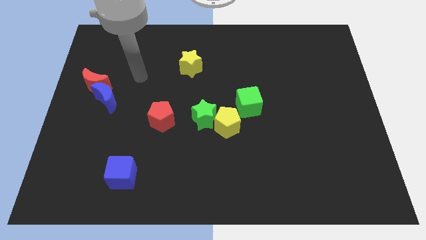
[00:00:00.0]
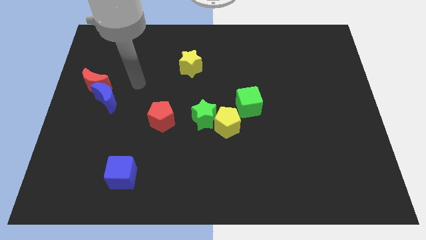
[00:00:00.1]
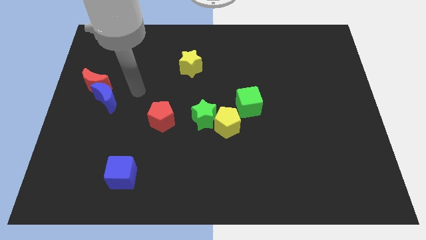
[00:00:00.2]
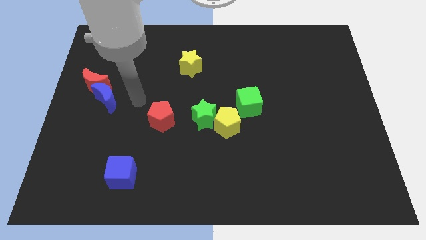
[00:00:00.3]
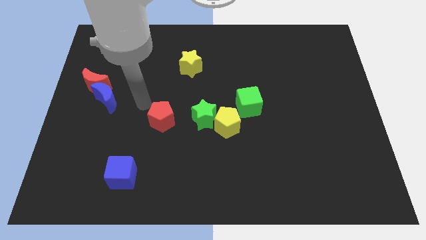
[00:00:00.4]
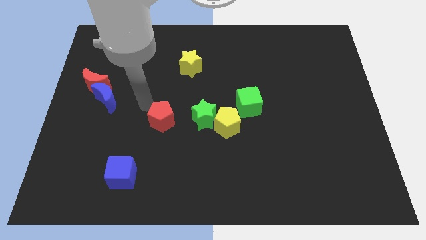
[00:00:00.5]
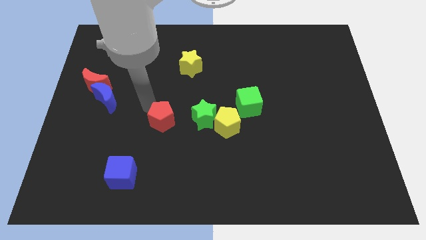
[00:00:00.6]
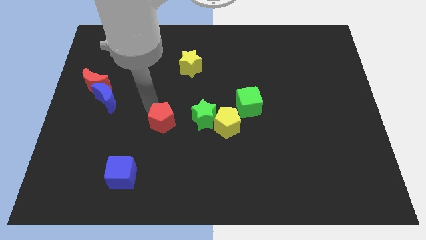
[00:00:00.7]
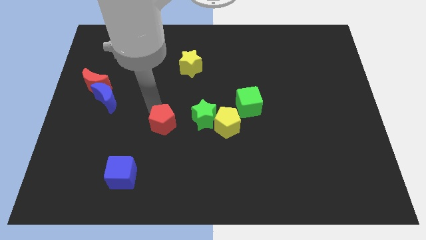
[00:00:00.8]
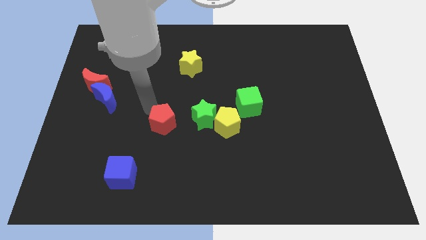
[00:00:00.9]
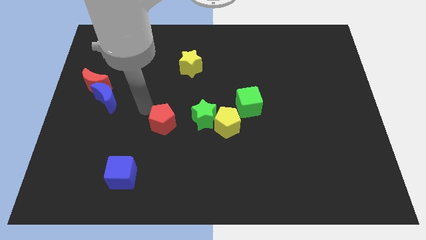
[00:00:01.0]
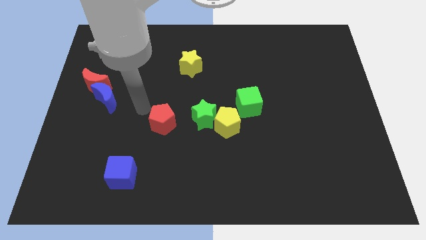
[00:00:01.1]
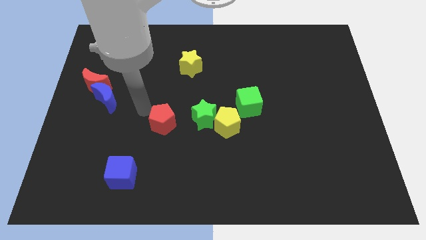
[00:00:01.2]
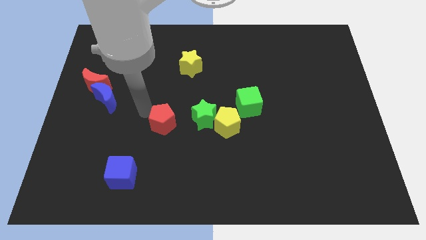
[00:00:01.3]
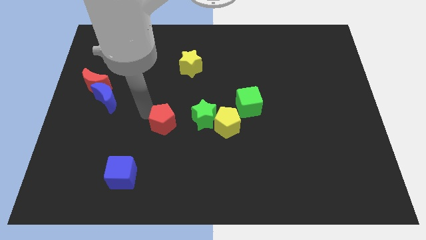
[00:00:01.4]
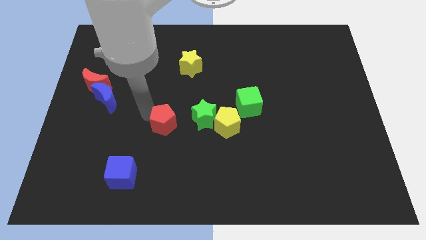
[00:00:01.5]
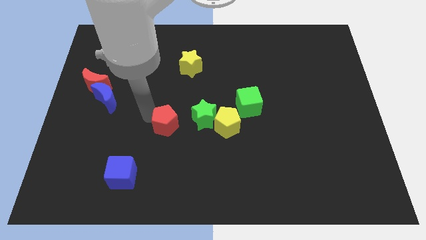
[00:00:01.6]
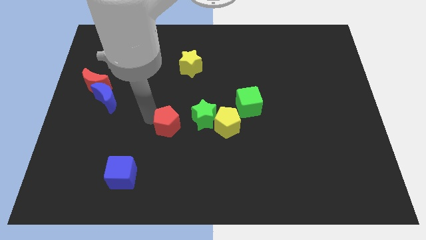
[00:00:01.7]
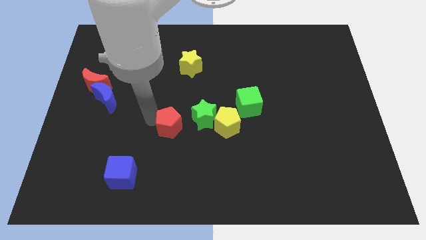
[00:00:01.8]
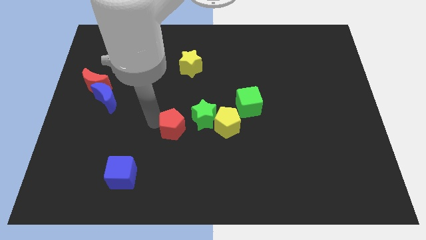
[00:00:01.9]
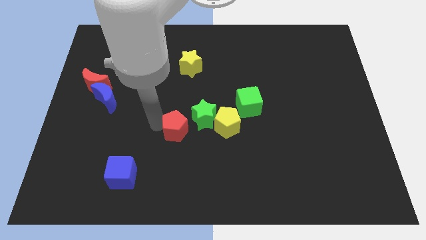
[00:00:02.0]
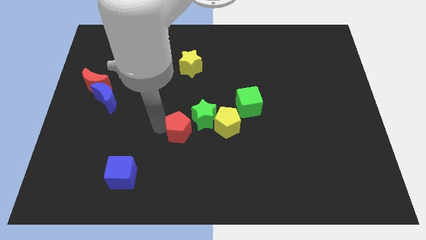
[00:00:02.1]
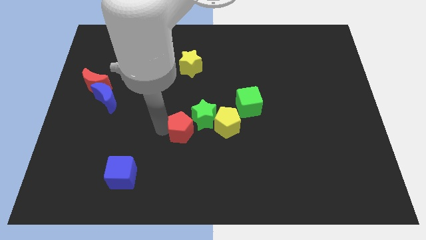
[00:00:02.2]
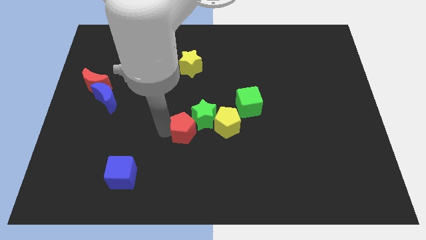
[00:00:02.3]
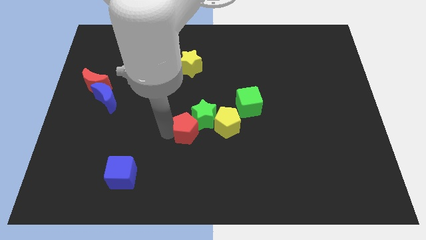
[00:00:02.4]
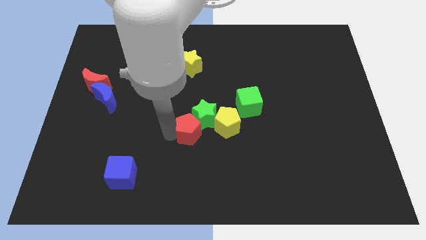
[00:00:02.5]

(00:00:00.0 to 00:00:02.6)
slightly slide the red pentagon diagonally downwards and right

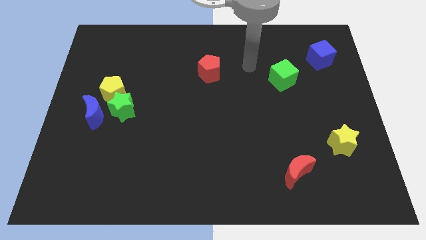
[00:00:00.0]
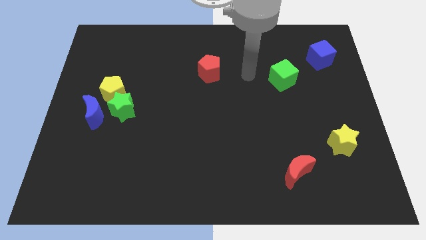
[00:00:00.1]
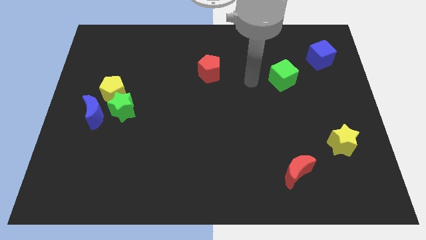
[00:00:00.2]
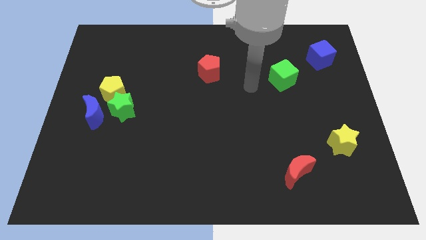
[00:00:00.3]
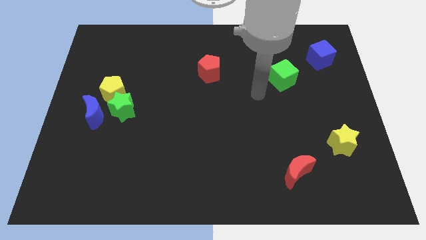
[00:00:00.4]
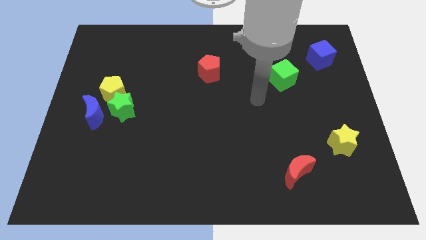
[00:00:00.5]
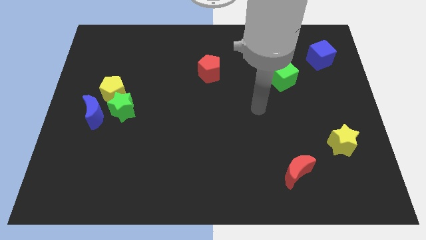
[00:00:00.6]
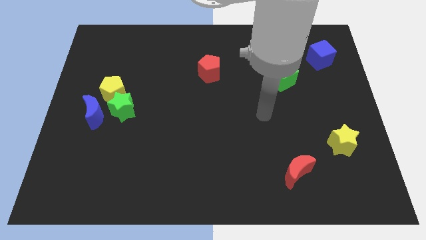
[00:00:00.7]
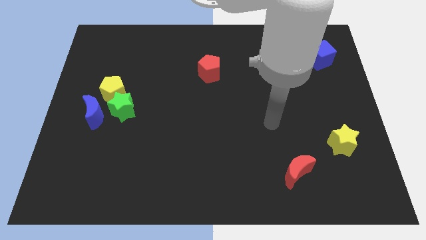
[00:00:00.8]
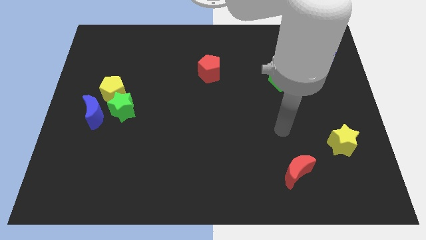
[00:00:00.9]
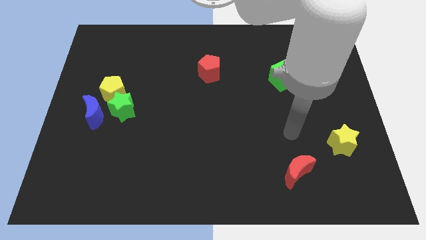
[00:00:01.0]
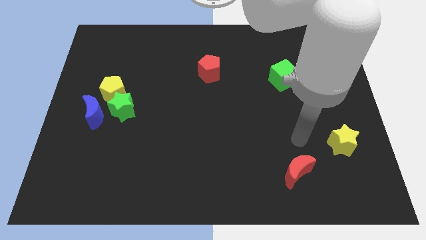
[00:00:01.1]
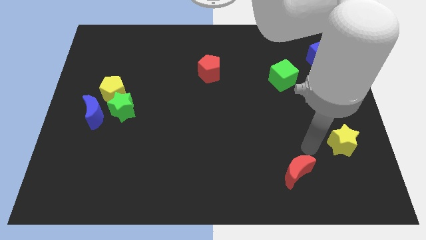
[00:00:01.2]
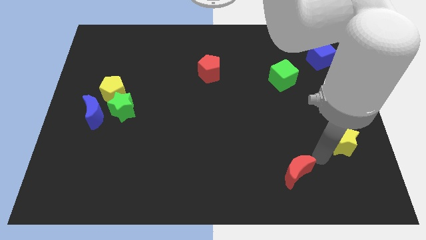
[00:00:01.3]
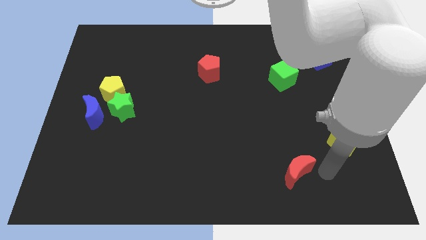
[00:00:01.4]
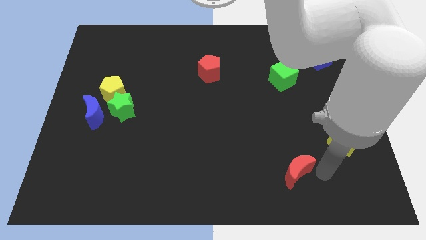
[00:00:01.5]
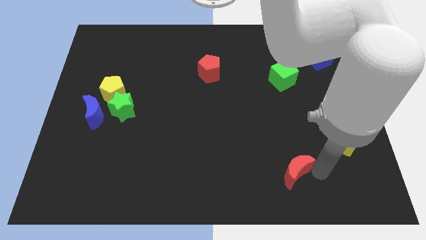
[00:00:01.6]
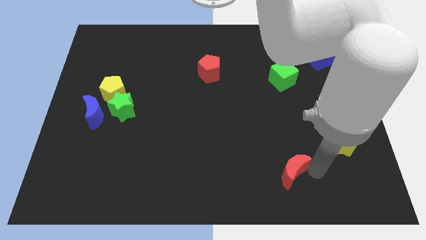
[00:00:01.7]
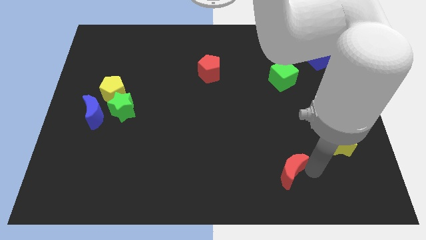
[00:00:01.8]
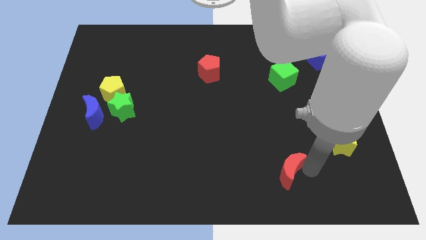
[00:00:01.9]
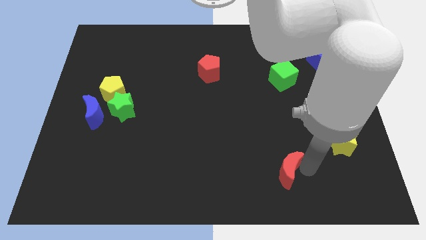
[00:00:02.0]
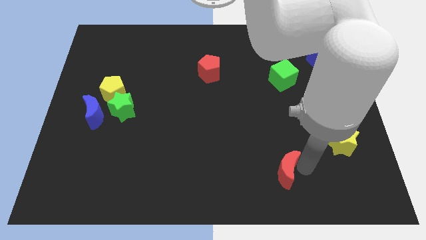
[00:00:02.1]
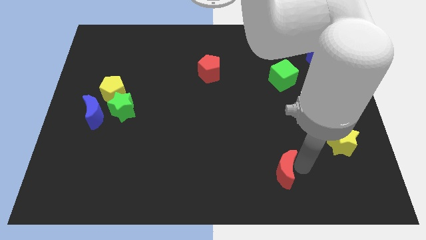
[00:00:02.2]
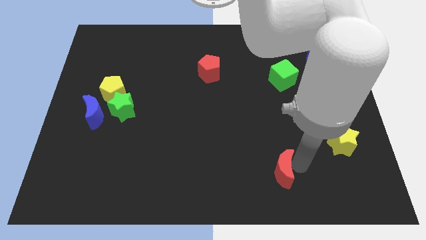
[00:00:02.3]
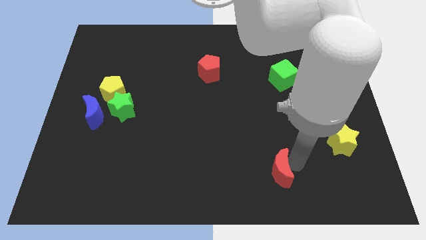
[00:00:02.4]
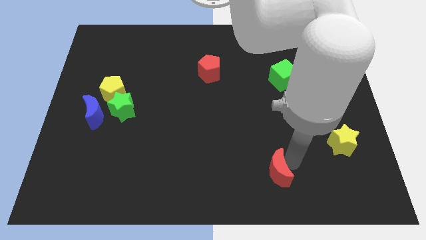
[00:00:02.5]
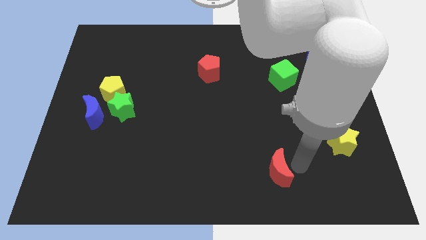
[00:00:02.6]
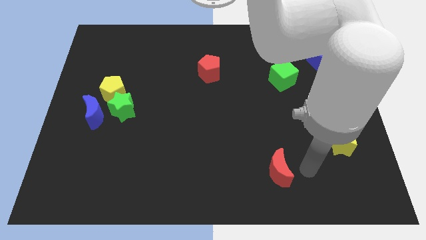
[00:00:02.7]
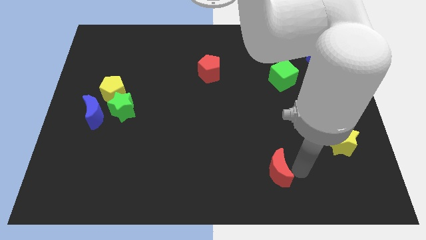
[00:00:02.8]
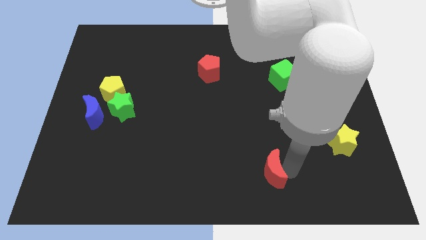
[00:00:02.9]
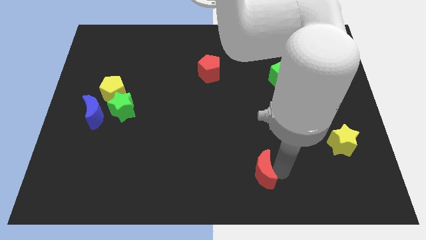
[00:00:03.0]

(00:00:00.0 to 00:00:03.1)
slide the red moon somewhat left

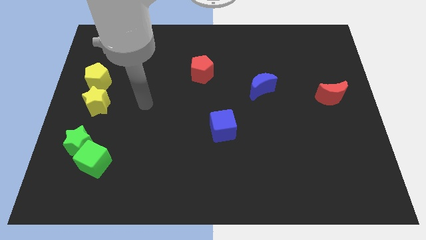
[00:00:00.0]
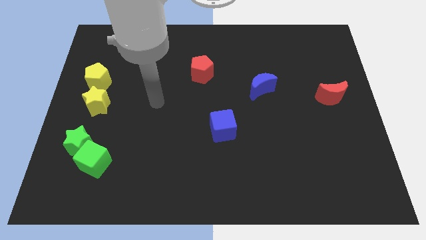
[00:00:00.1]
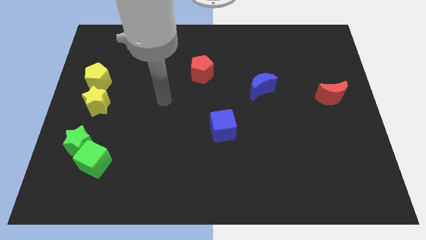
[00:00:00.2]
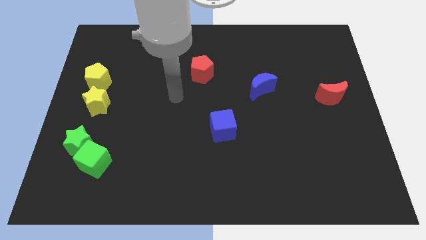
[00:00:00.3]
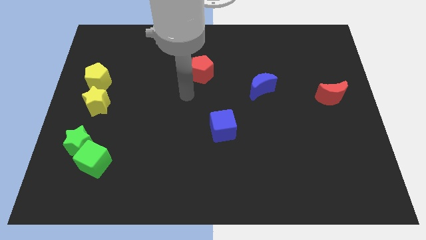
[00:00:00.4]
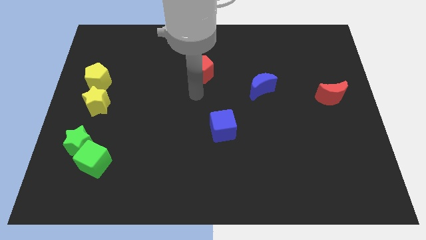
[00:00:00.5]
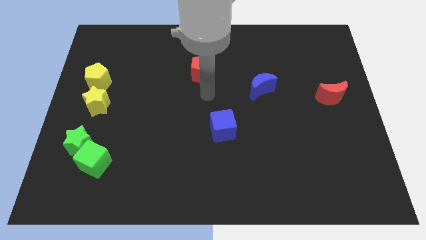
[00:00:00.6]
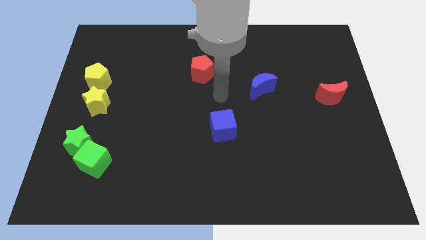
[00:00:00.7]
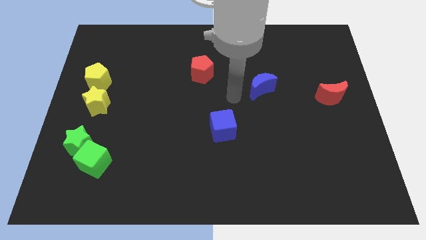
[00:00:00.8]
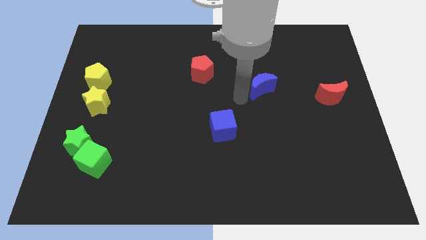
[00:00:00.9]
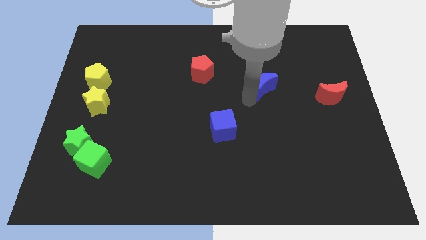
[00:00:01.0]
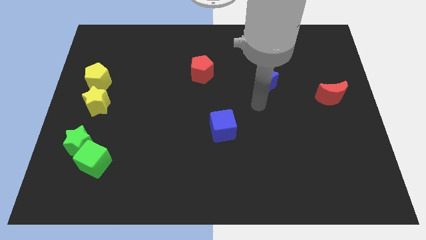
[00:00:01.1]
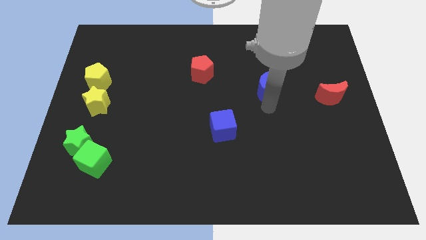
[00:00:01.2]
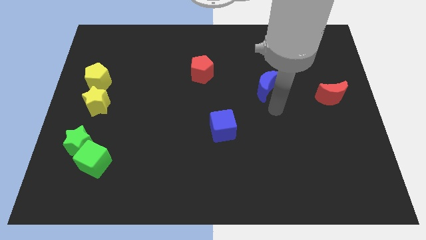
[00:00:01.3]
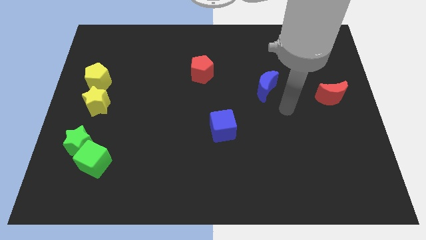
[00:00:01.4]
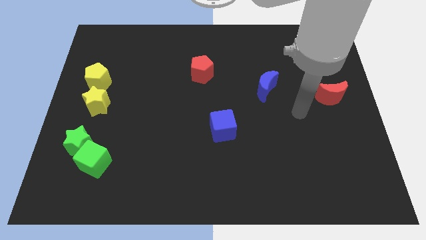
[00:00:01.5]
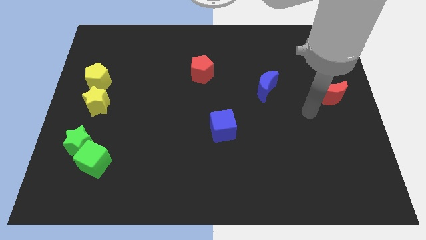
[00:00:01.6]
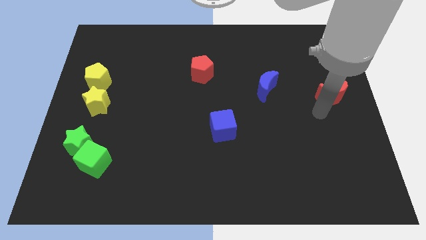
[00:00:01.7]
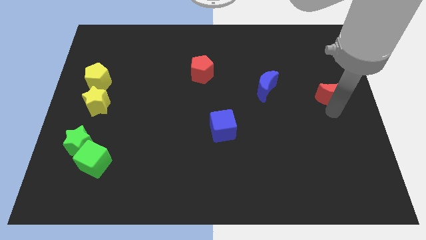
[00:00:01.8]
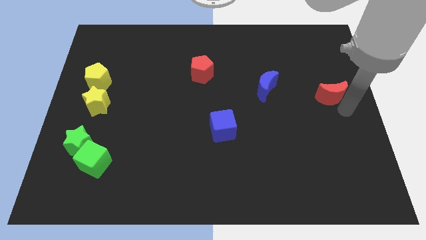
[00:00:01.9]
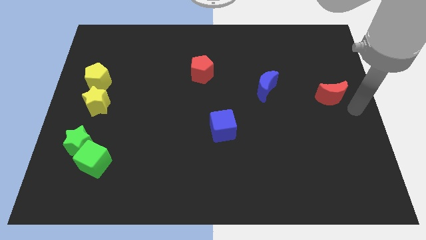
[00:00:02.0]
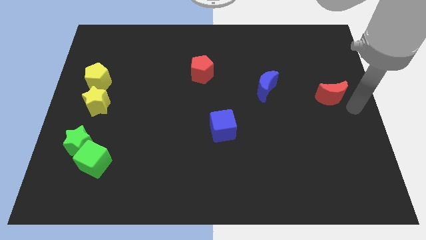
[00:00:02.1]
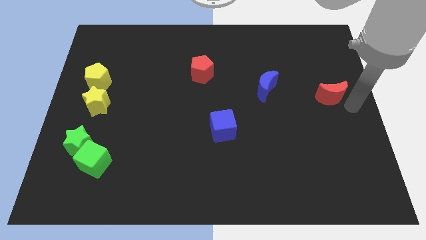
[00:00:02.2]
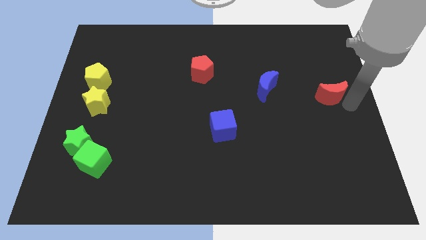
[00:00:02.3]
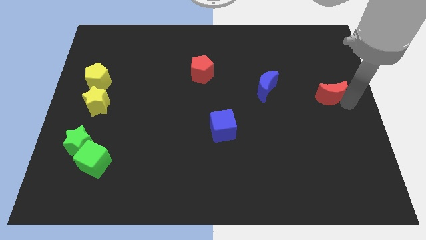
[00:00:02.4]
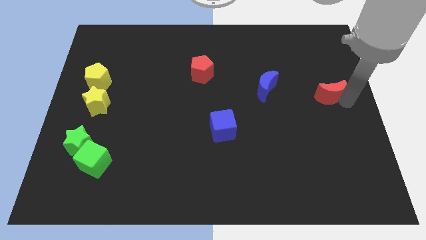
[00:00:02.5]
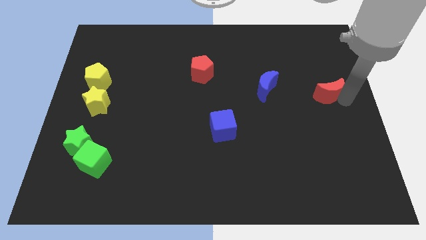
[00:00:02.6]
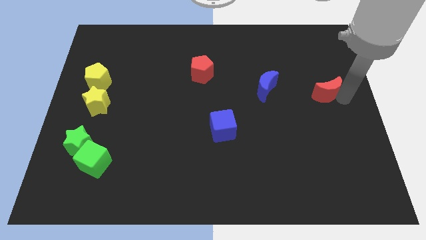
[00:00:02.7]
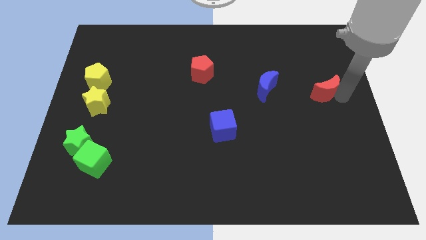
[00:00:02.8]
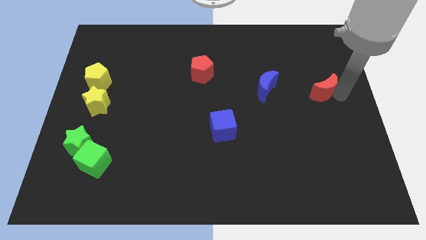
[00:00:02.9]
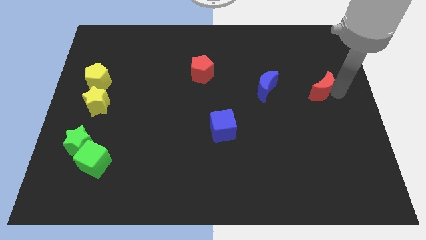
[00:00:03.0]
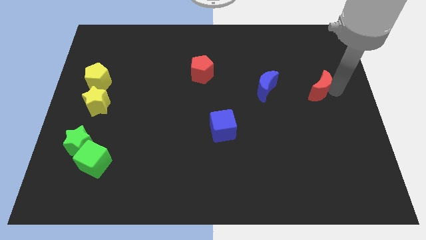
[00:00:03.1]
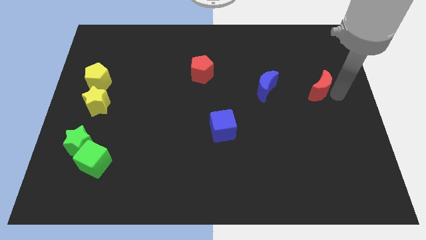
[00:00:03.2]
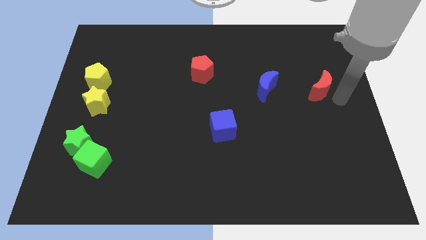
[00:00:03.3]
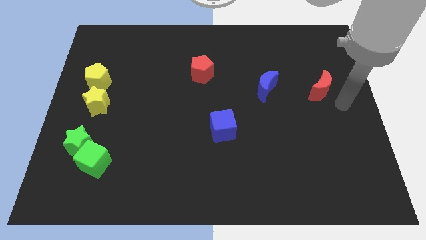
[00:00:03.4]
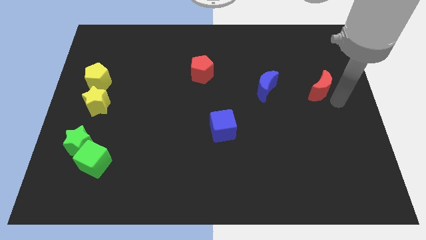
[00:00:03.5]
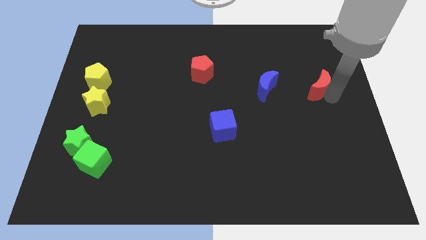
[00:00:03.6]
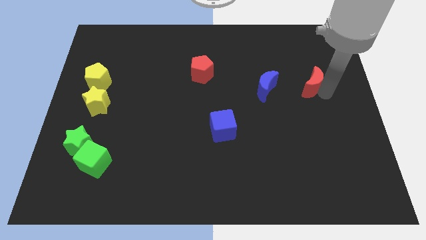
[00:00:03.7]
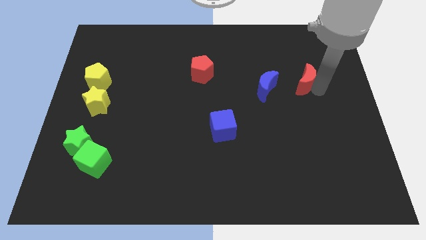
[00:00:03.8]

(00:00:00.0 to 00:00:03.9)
slide the red moon up and left a little
